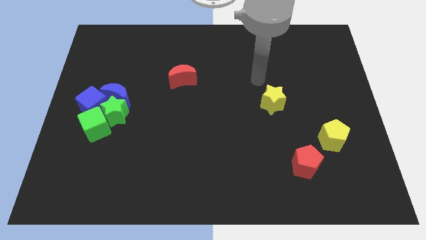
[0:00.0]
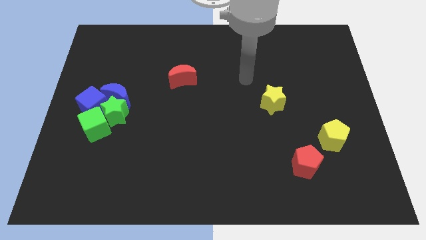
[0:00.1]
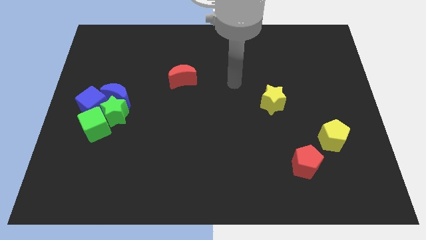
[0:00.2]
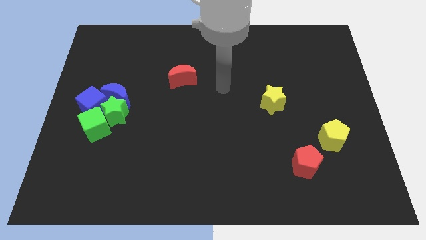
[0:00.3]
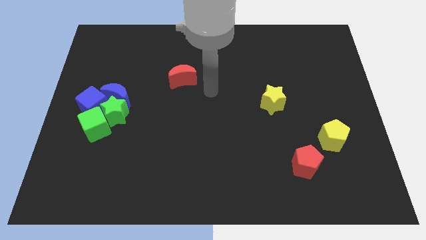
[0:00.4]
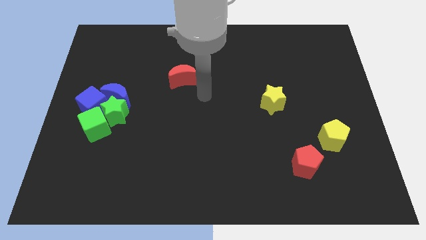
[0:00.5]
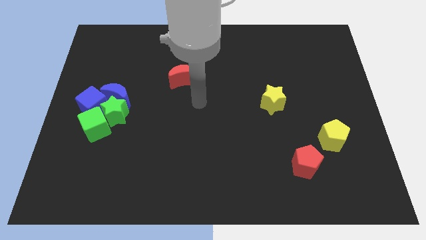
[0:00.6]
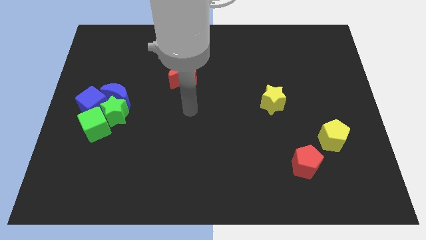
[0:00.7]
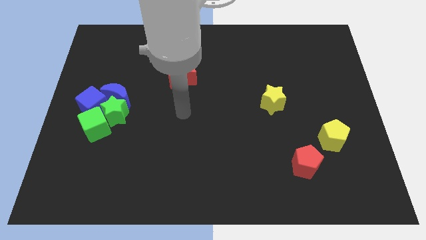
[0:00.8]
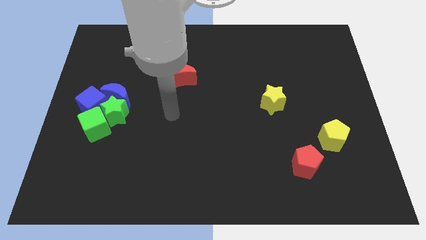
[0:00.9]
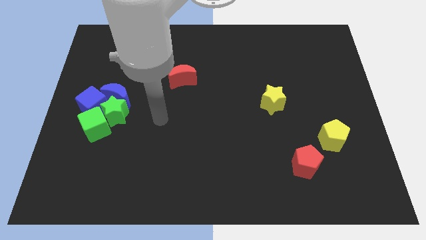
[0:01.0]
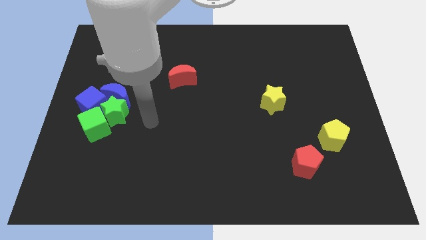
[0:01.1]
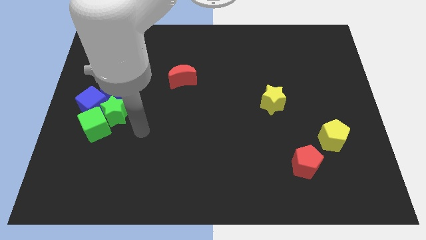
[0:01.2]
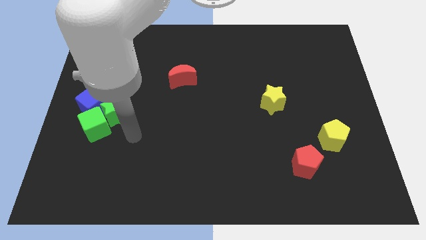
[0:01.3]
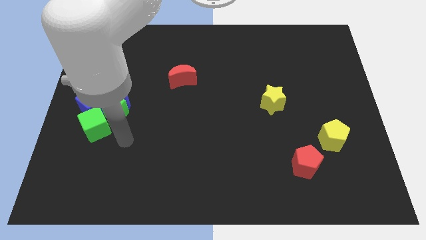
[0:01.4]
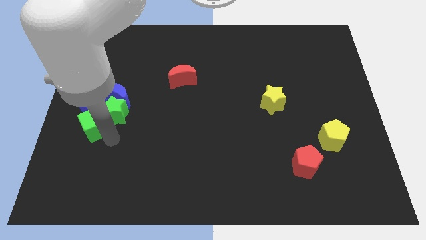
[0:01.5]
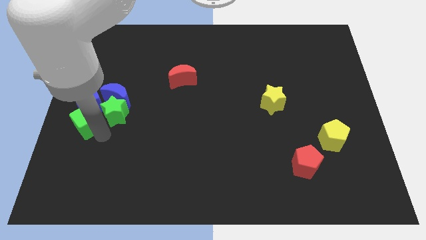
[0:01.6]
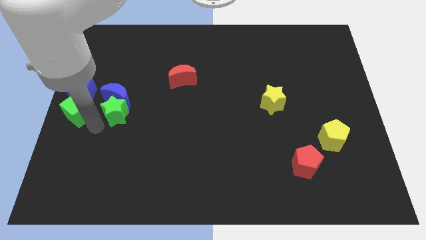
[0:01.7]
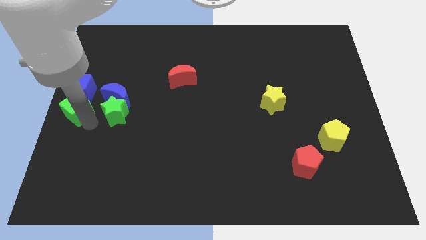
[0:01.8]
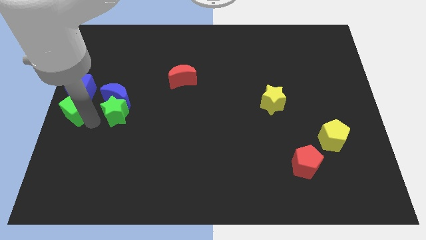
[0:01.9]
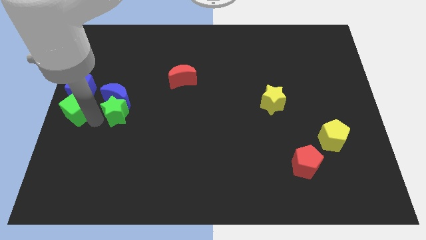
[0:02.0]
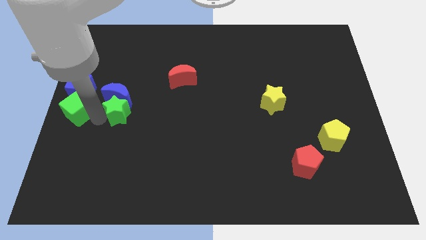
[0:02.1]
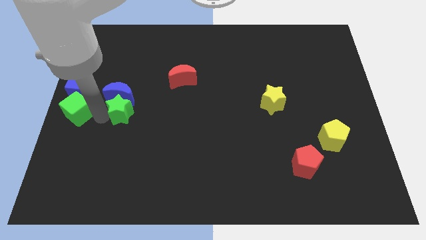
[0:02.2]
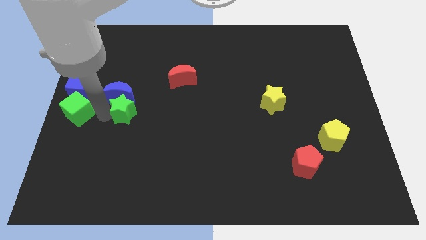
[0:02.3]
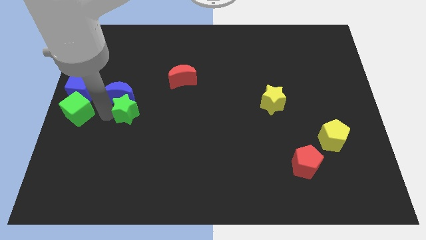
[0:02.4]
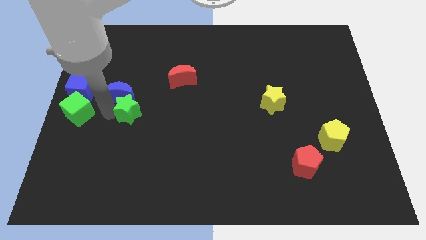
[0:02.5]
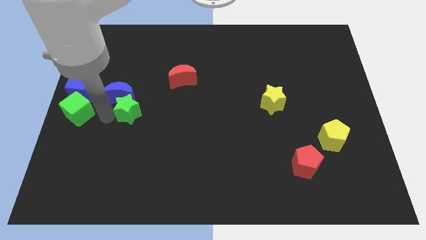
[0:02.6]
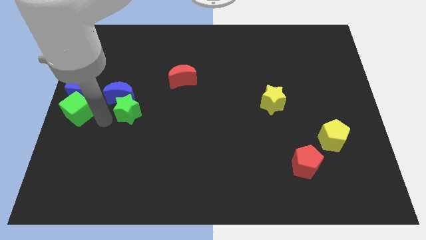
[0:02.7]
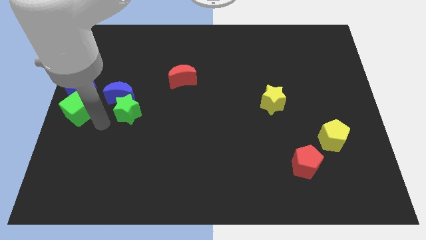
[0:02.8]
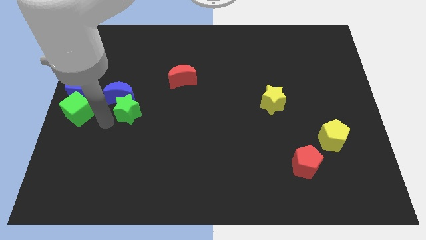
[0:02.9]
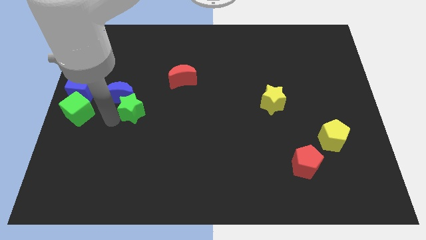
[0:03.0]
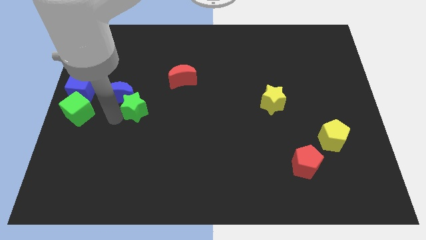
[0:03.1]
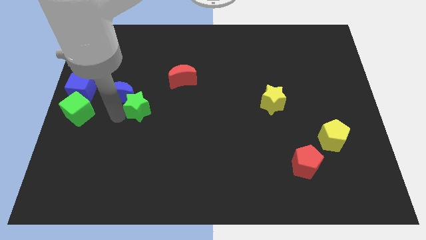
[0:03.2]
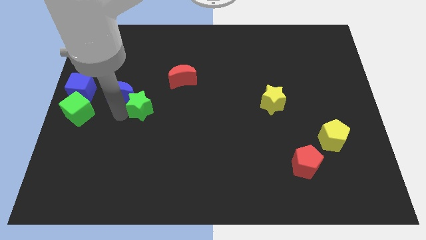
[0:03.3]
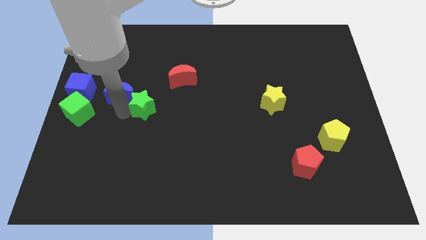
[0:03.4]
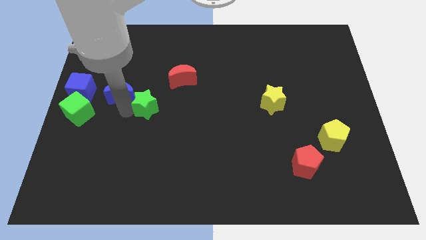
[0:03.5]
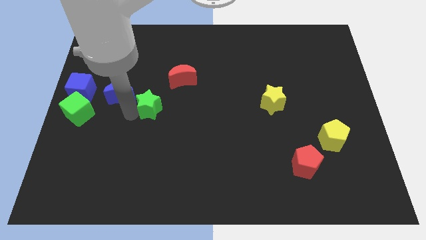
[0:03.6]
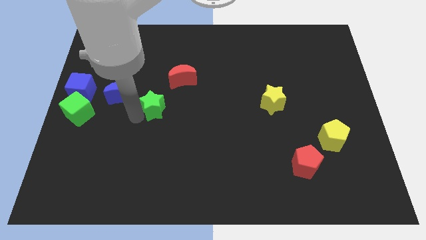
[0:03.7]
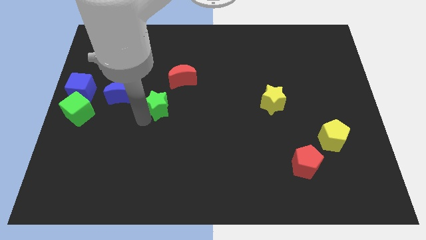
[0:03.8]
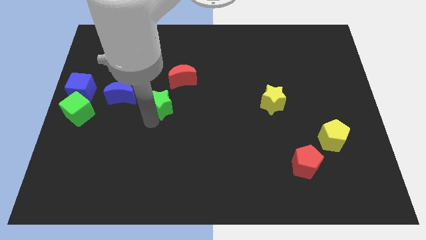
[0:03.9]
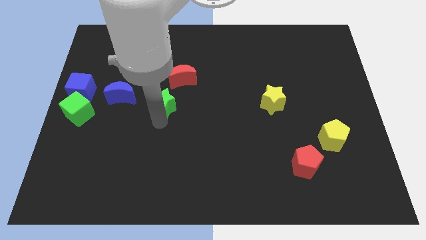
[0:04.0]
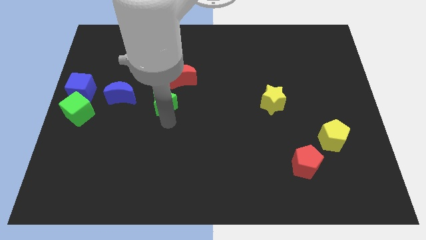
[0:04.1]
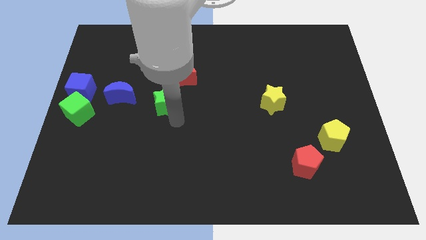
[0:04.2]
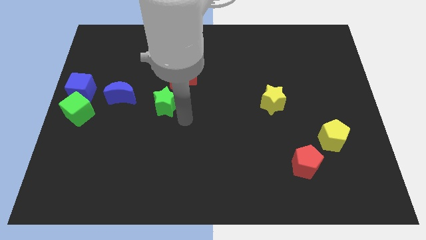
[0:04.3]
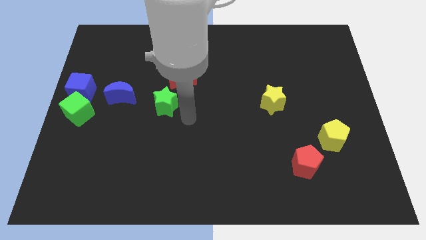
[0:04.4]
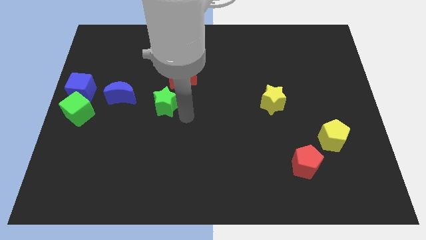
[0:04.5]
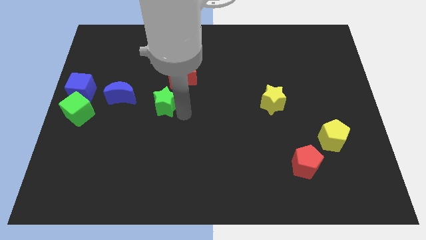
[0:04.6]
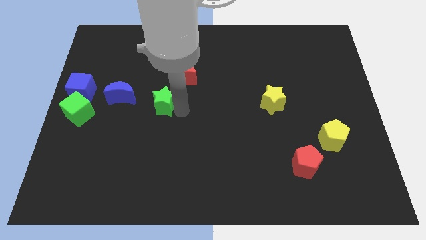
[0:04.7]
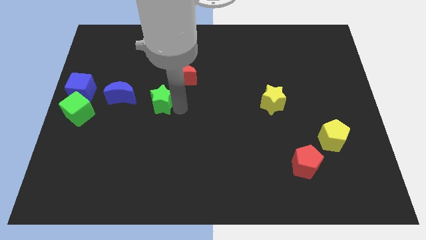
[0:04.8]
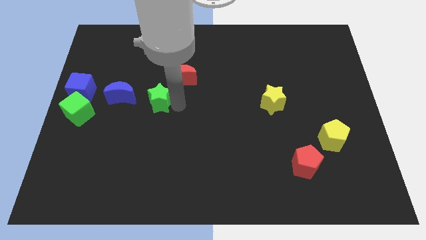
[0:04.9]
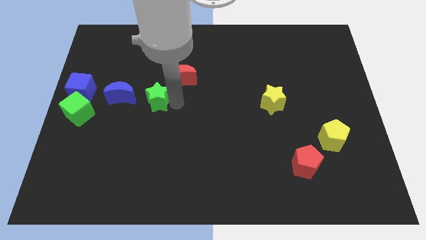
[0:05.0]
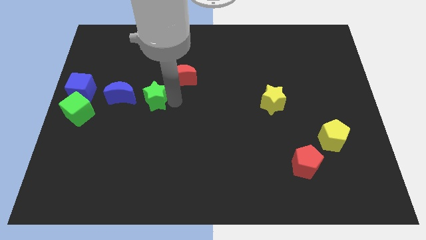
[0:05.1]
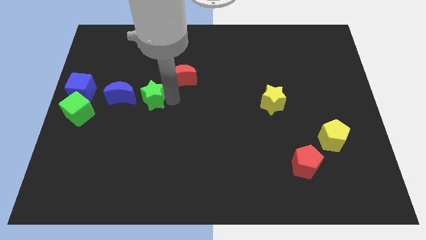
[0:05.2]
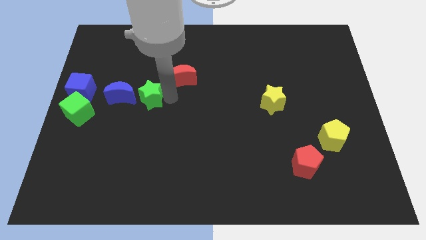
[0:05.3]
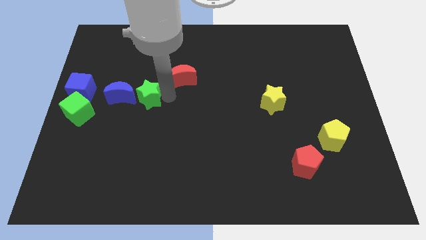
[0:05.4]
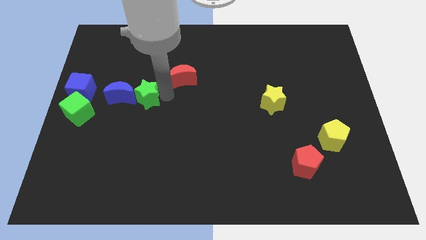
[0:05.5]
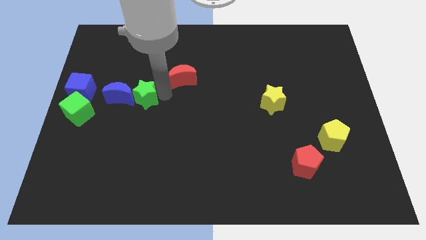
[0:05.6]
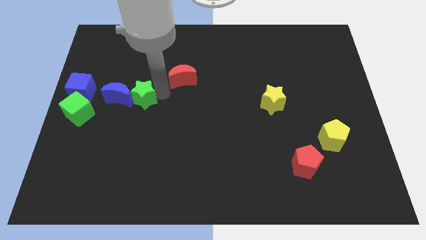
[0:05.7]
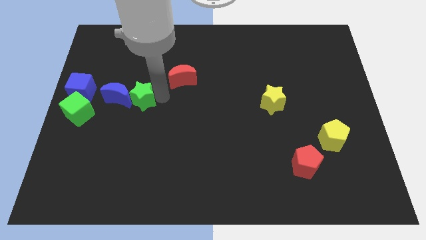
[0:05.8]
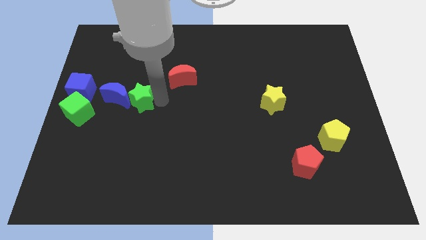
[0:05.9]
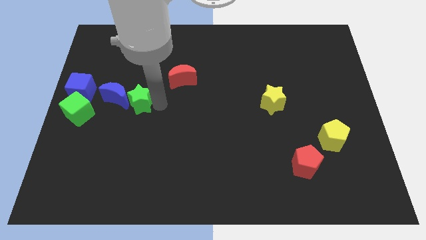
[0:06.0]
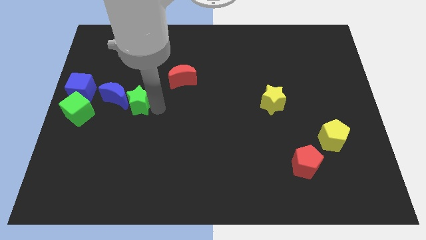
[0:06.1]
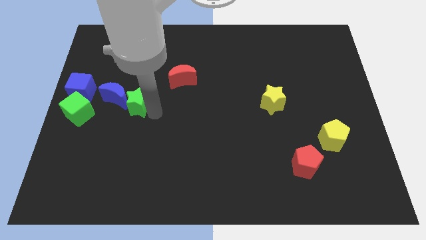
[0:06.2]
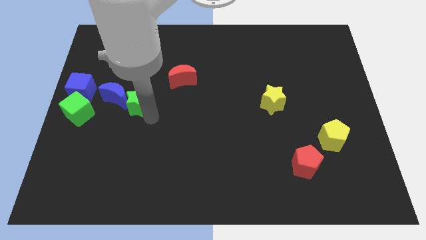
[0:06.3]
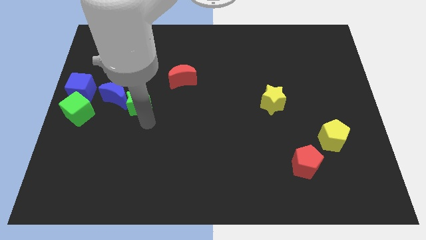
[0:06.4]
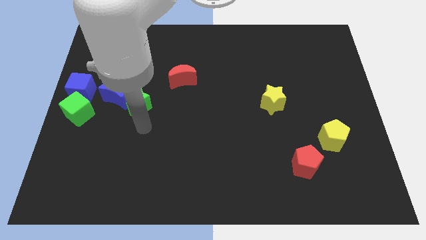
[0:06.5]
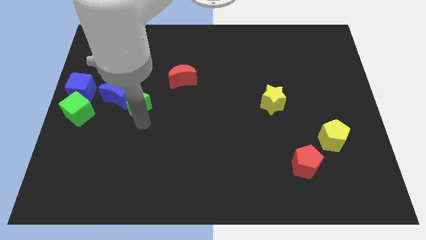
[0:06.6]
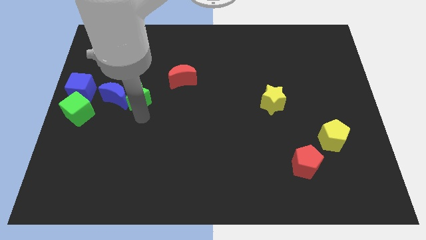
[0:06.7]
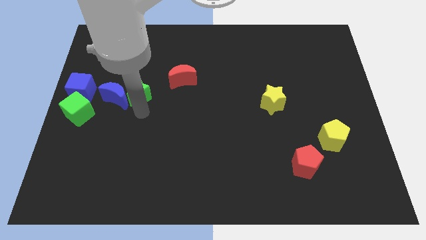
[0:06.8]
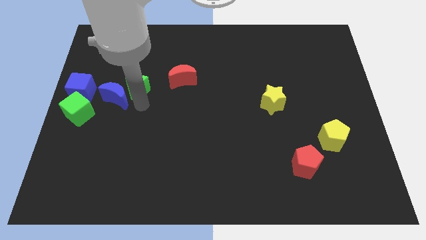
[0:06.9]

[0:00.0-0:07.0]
slide the green star upwards a little bit

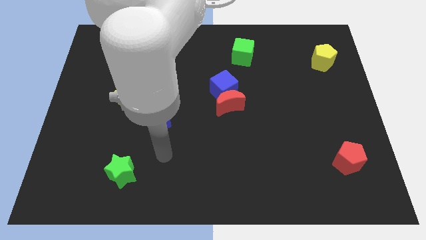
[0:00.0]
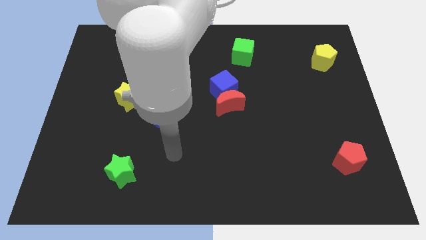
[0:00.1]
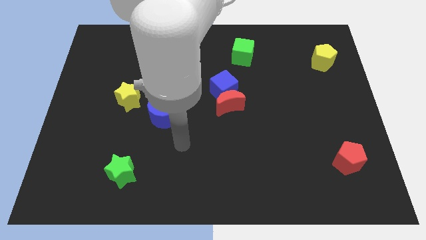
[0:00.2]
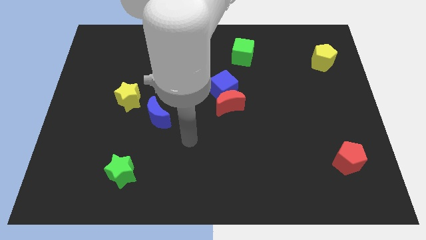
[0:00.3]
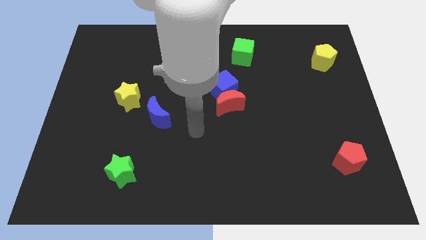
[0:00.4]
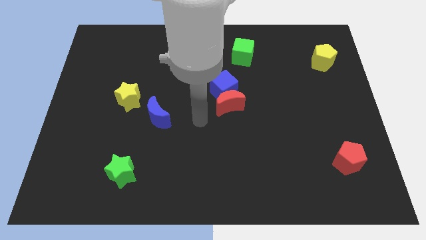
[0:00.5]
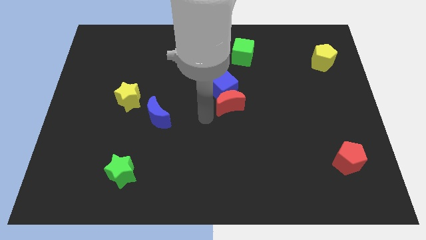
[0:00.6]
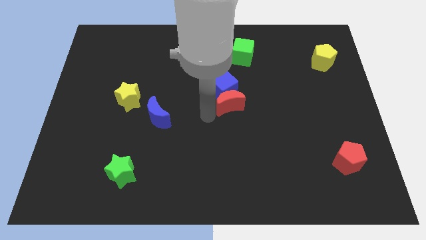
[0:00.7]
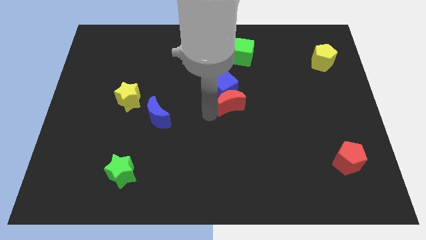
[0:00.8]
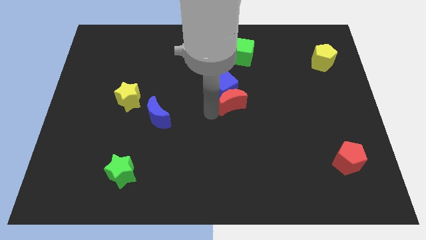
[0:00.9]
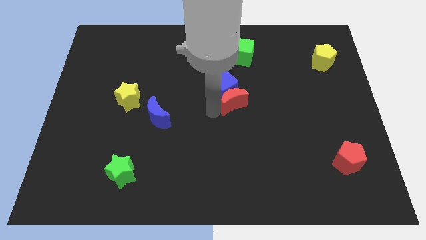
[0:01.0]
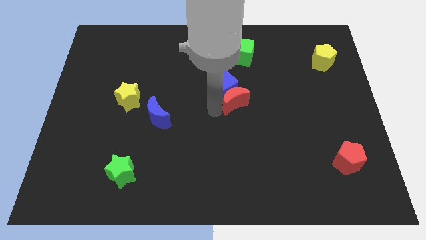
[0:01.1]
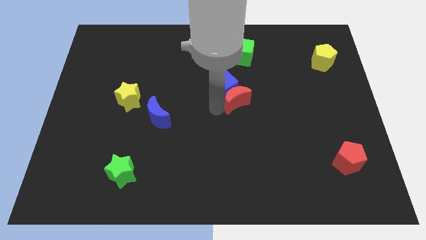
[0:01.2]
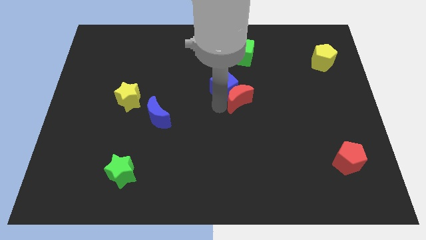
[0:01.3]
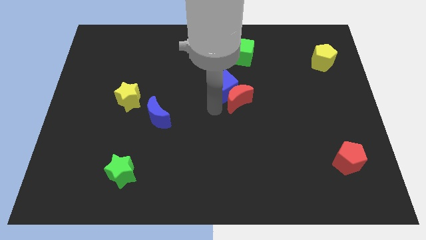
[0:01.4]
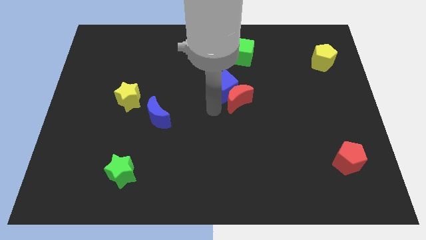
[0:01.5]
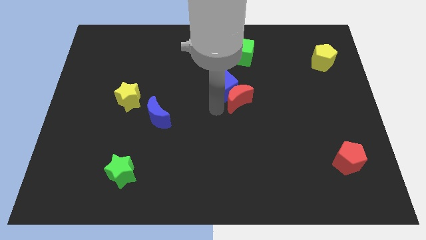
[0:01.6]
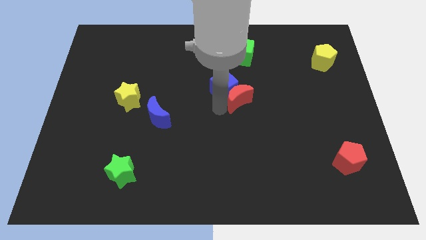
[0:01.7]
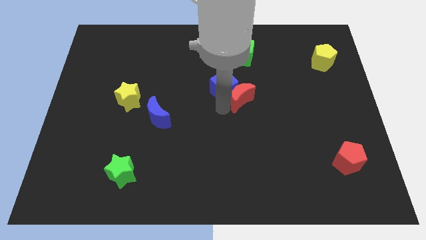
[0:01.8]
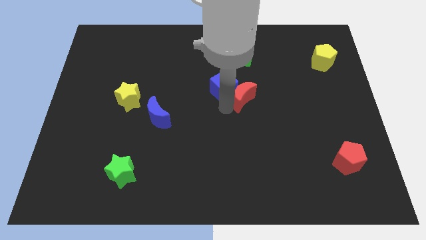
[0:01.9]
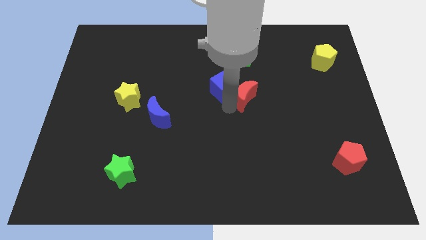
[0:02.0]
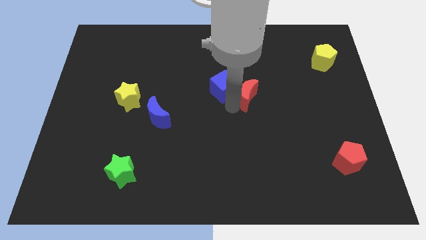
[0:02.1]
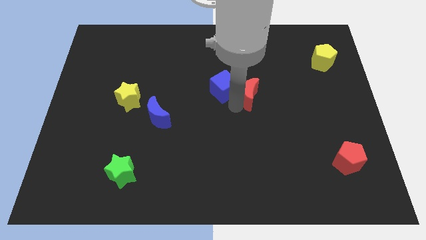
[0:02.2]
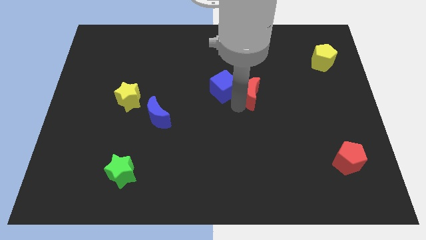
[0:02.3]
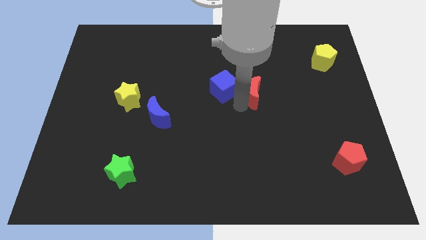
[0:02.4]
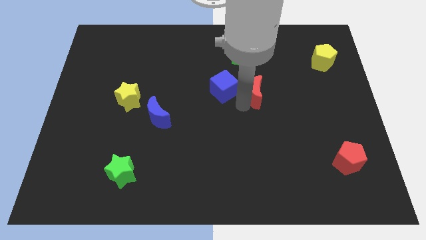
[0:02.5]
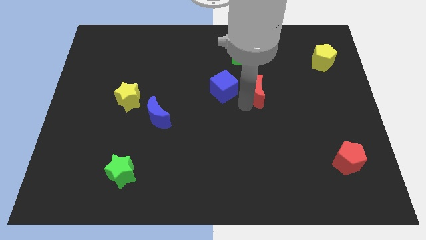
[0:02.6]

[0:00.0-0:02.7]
move the red moon upwards and right a little bit
